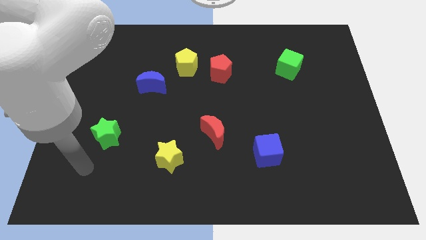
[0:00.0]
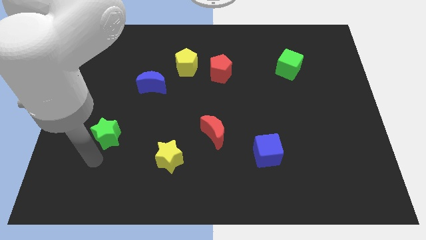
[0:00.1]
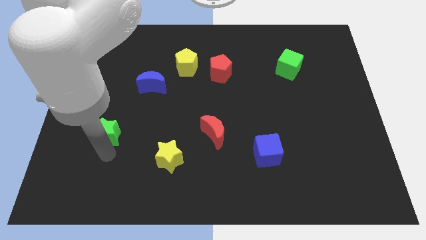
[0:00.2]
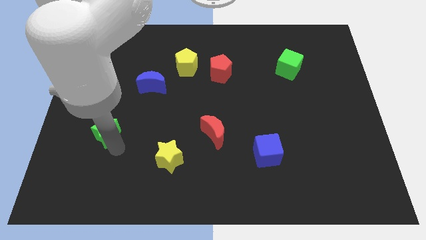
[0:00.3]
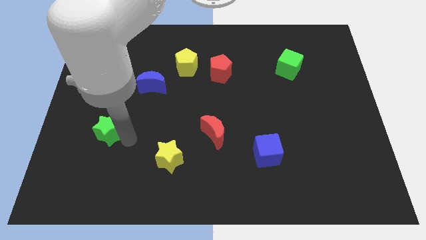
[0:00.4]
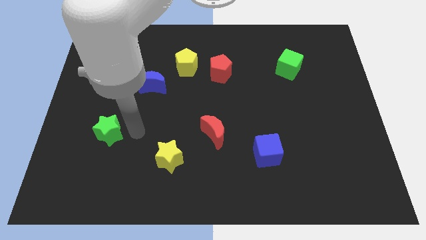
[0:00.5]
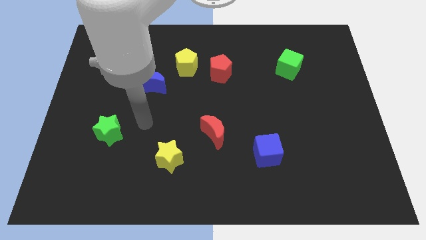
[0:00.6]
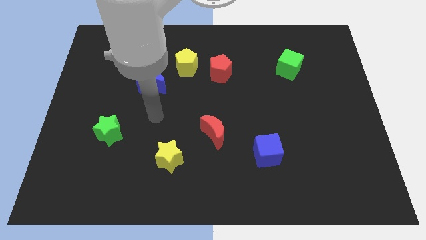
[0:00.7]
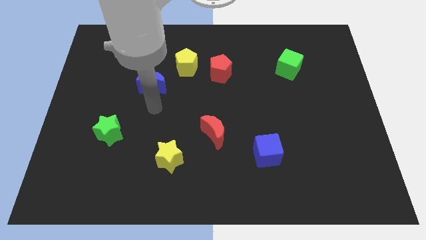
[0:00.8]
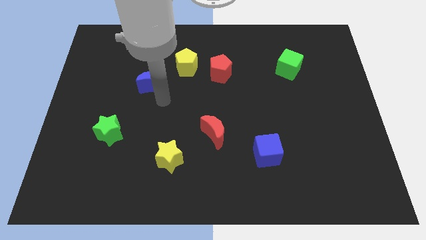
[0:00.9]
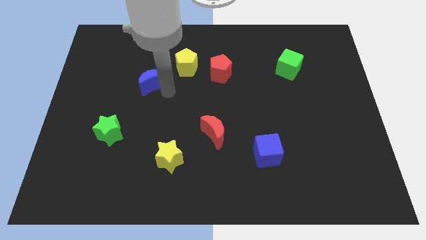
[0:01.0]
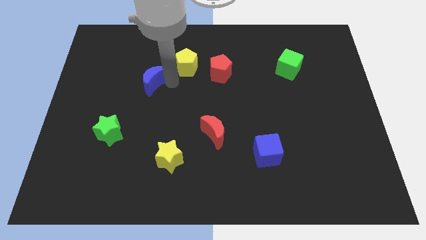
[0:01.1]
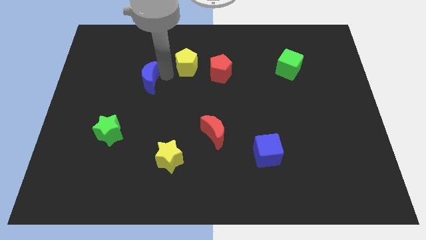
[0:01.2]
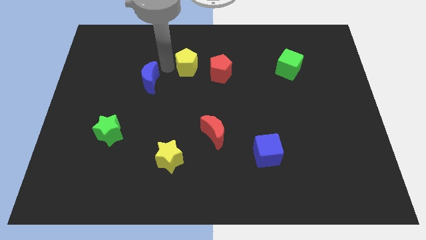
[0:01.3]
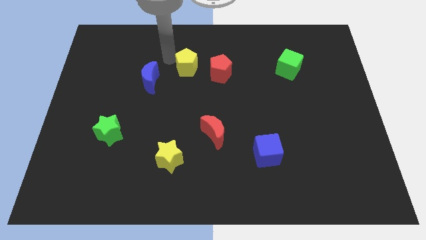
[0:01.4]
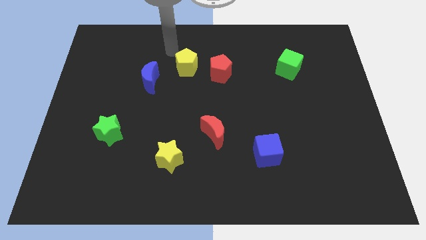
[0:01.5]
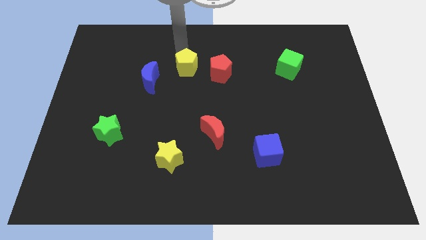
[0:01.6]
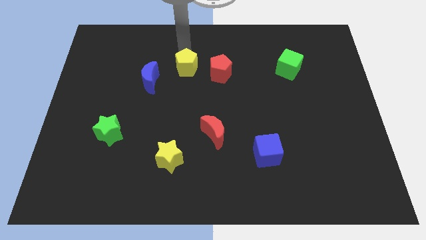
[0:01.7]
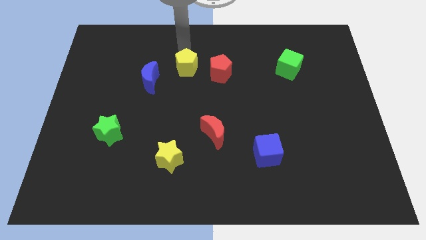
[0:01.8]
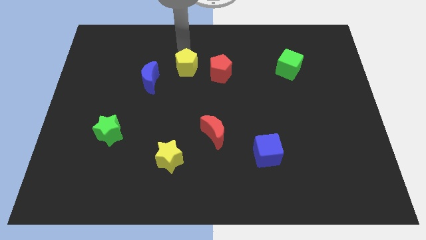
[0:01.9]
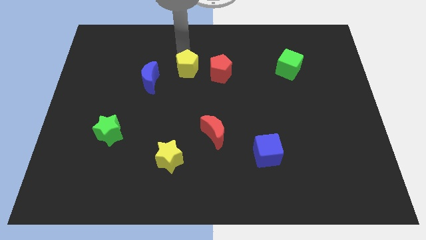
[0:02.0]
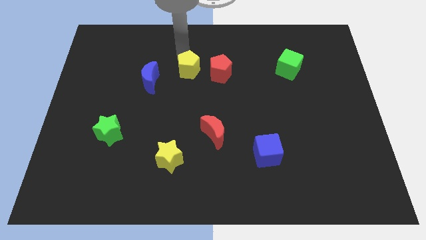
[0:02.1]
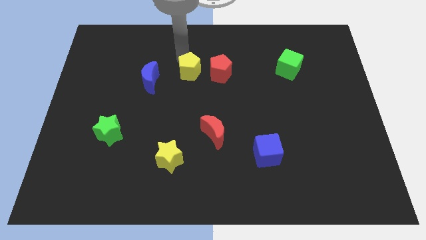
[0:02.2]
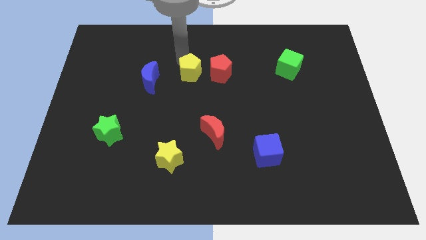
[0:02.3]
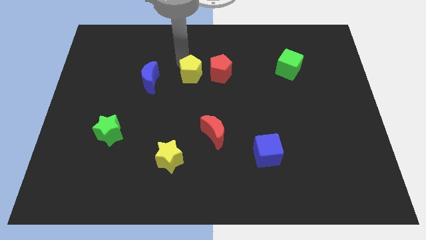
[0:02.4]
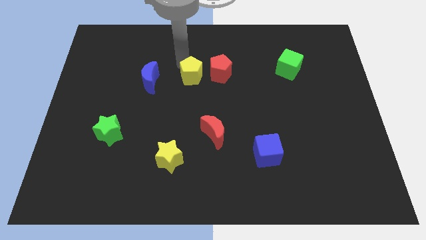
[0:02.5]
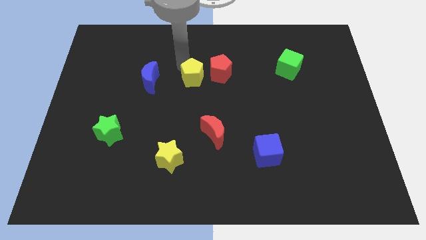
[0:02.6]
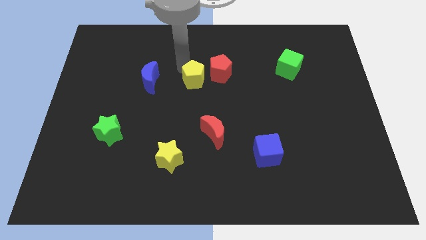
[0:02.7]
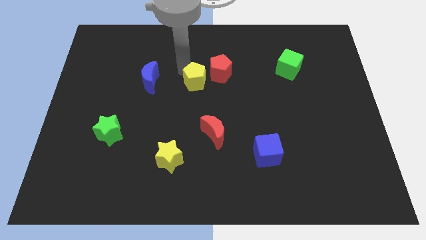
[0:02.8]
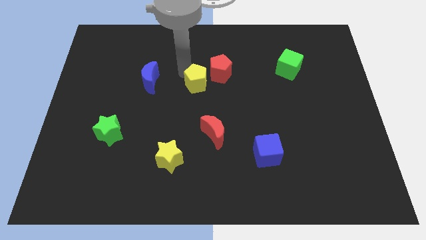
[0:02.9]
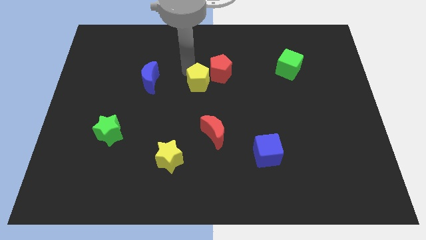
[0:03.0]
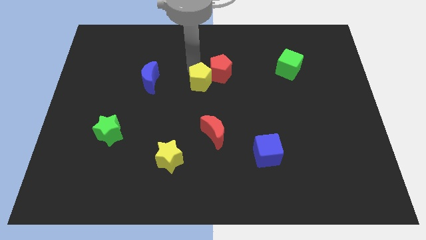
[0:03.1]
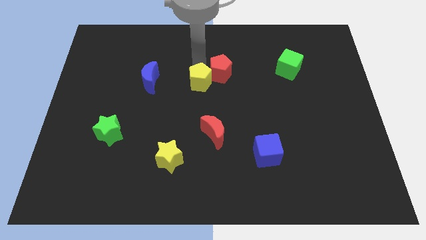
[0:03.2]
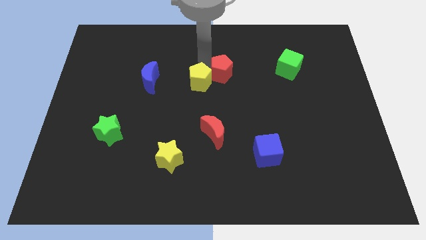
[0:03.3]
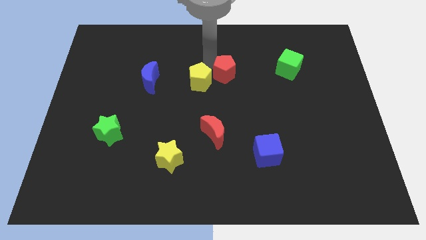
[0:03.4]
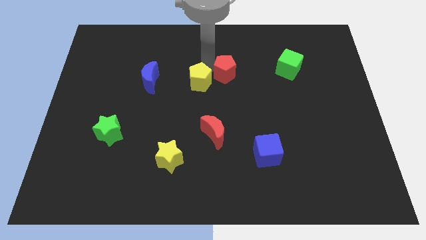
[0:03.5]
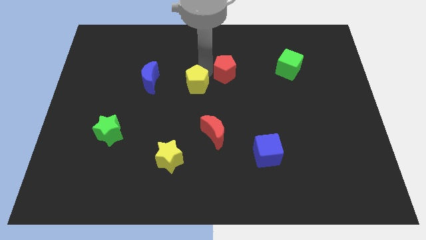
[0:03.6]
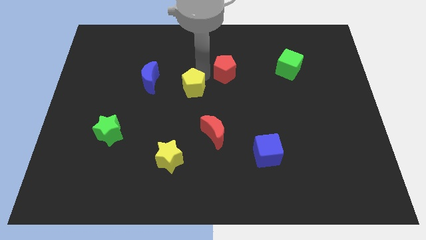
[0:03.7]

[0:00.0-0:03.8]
move the yellow pentagon slightly downwards

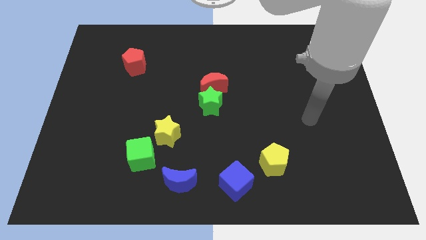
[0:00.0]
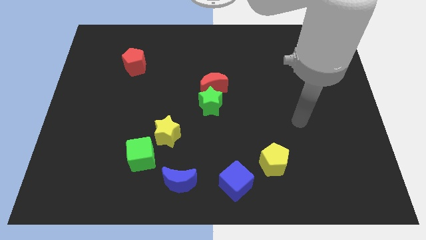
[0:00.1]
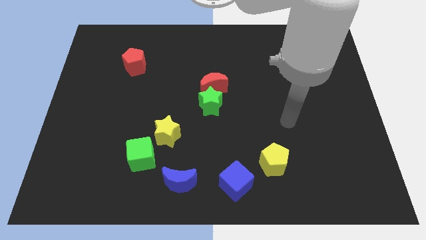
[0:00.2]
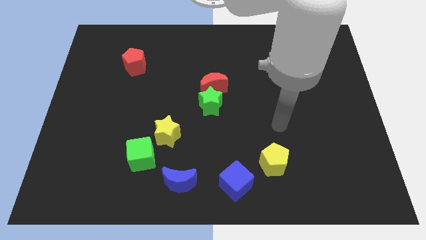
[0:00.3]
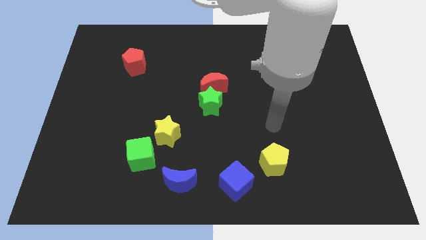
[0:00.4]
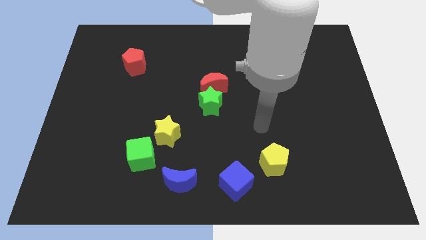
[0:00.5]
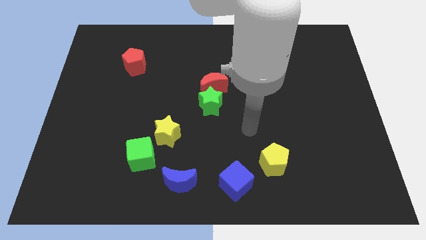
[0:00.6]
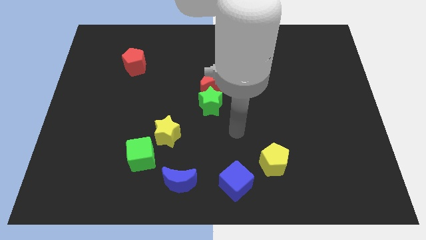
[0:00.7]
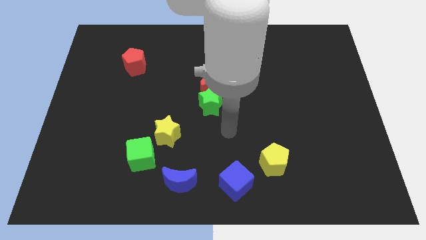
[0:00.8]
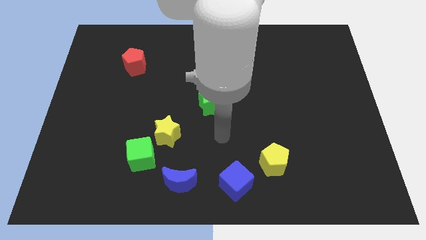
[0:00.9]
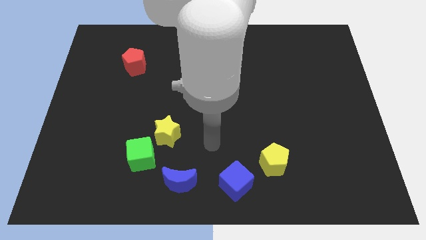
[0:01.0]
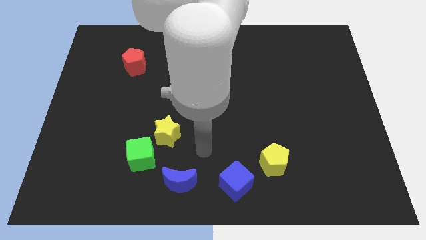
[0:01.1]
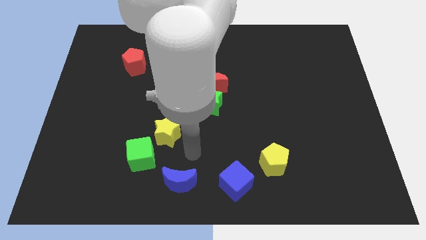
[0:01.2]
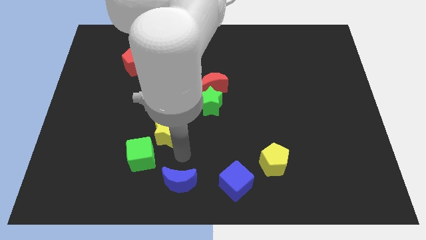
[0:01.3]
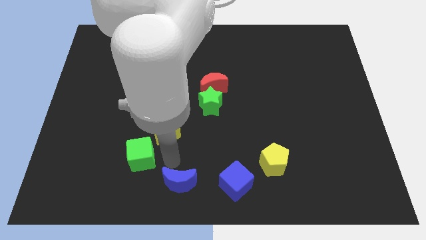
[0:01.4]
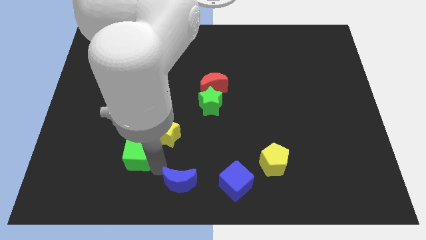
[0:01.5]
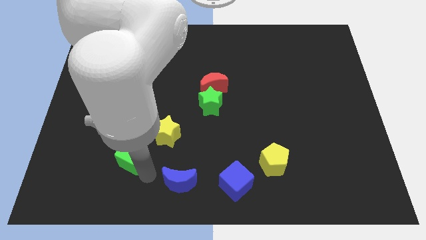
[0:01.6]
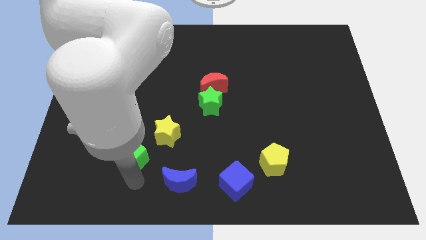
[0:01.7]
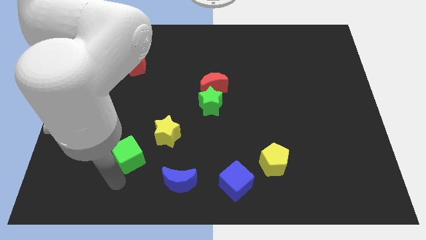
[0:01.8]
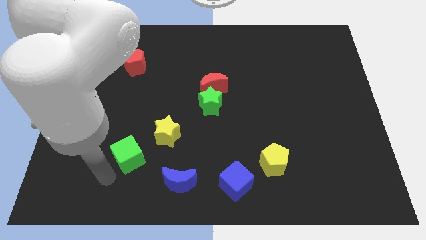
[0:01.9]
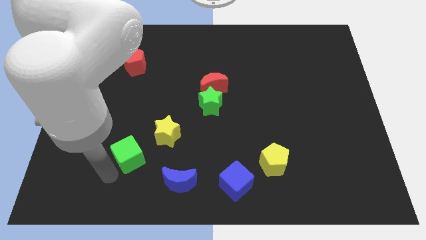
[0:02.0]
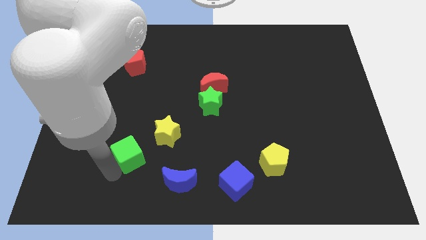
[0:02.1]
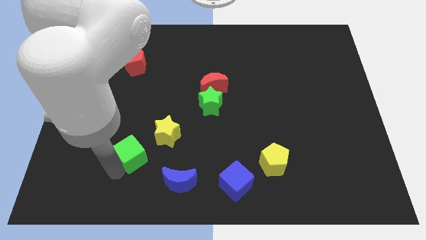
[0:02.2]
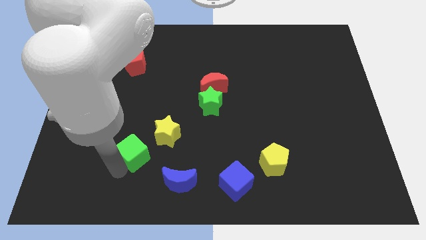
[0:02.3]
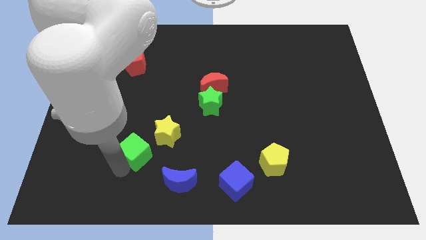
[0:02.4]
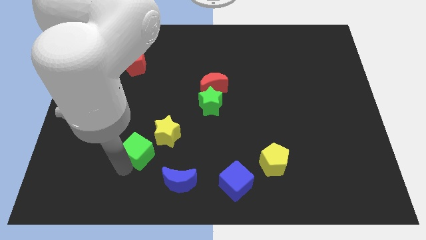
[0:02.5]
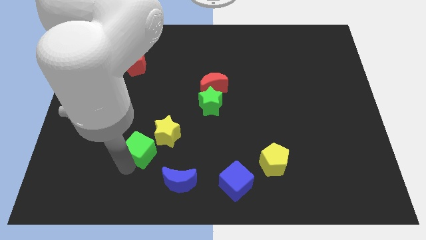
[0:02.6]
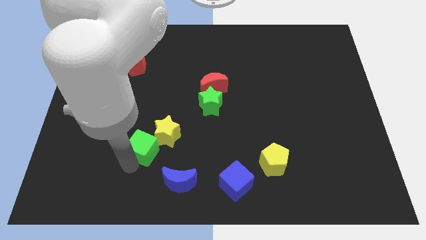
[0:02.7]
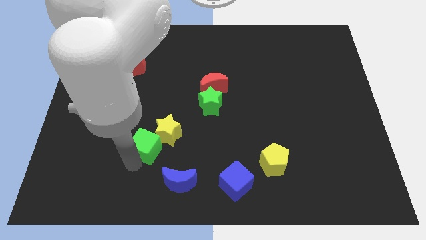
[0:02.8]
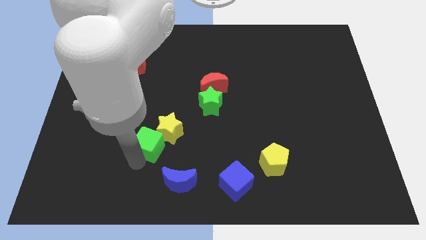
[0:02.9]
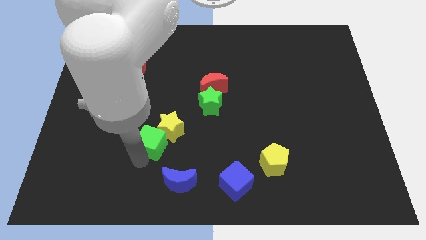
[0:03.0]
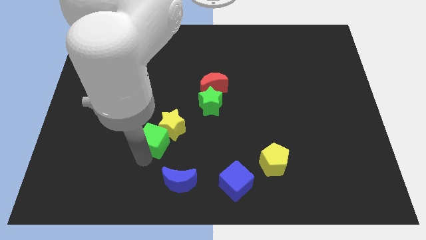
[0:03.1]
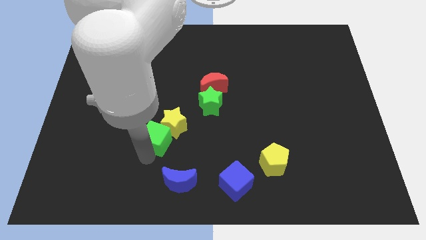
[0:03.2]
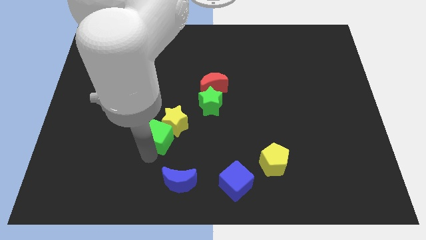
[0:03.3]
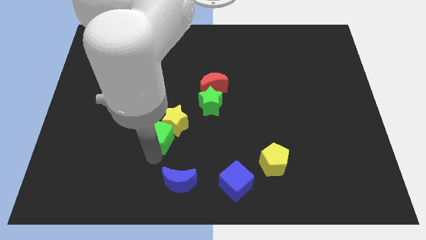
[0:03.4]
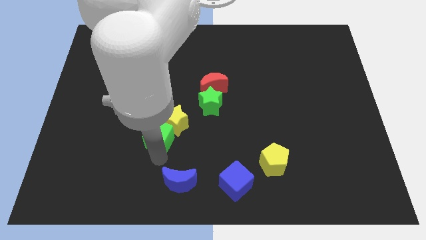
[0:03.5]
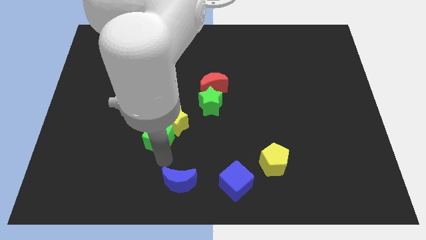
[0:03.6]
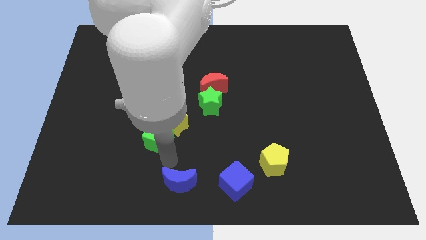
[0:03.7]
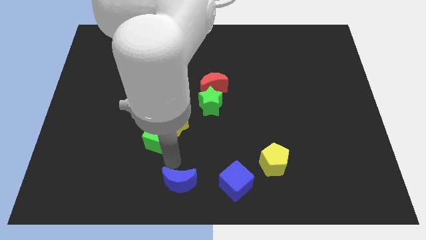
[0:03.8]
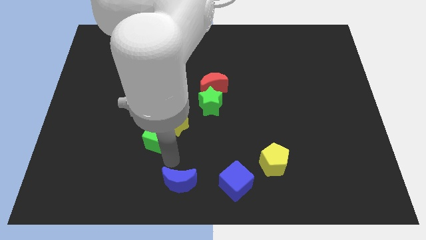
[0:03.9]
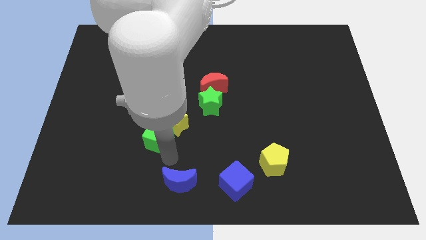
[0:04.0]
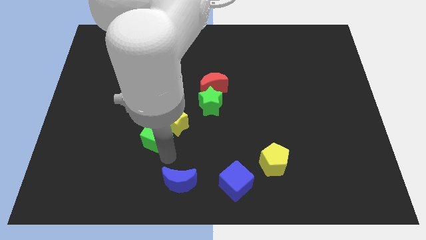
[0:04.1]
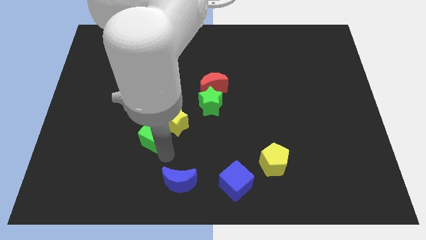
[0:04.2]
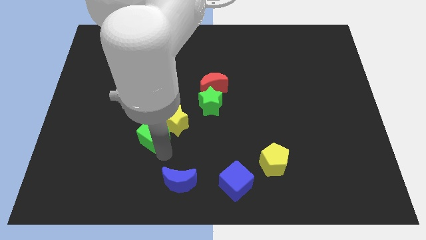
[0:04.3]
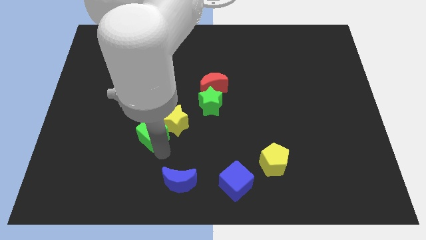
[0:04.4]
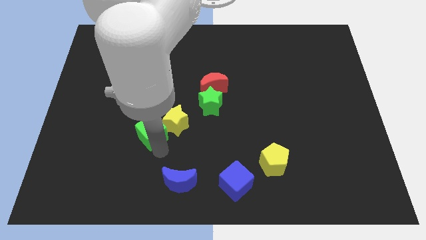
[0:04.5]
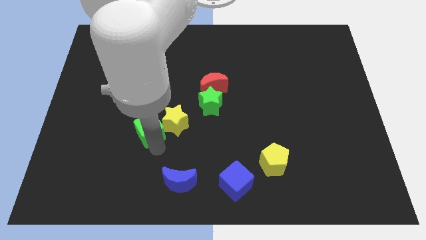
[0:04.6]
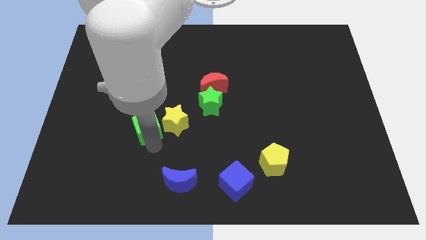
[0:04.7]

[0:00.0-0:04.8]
slide the green cube somewhat up
